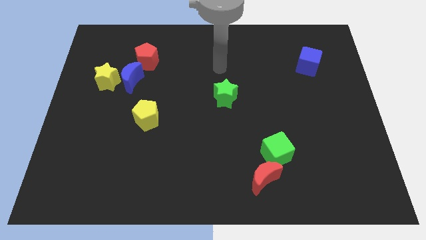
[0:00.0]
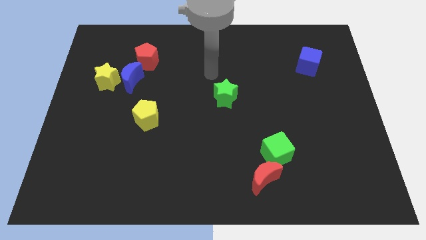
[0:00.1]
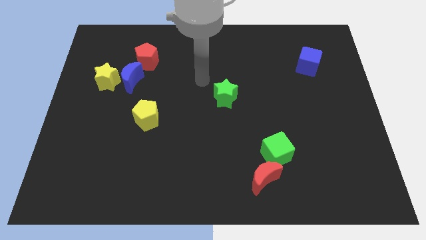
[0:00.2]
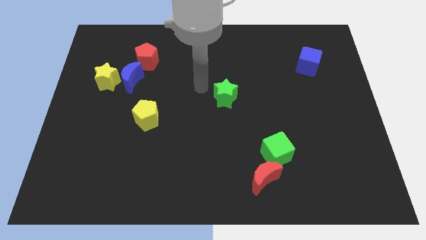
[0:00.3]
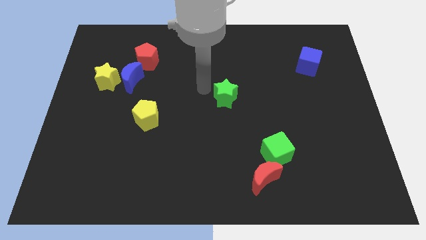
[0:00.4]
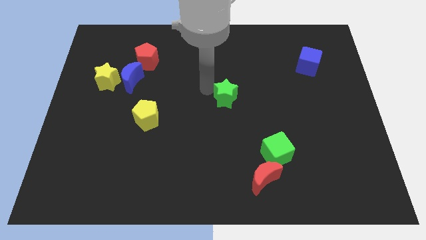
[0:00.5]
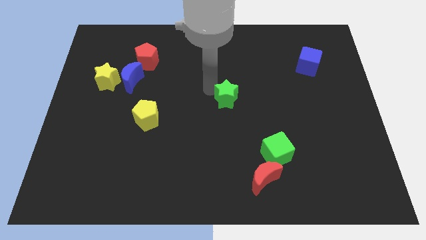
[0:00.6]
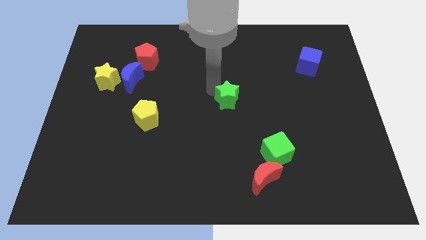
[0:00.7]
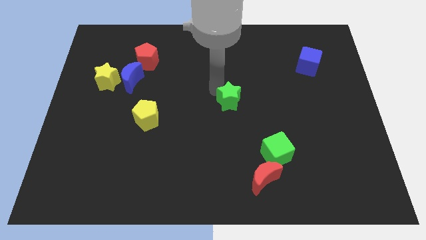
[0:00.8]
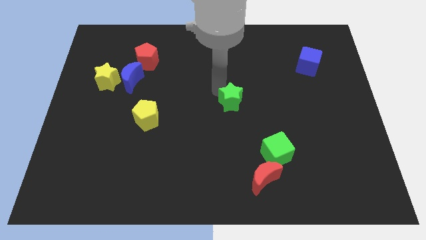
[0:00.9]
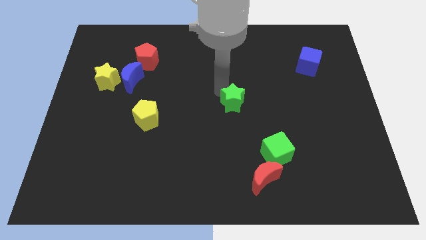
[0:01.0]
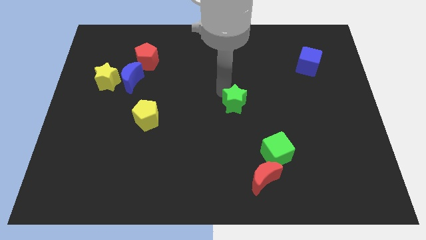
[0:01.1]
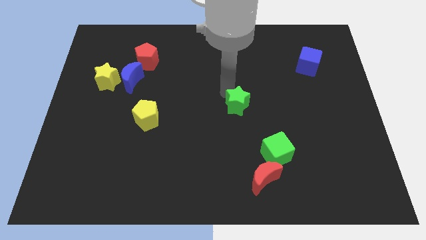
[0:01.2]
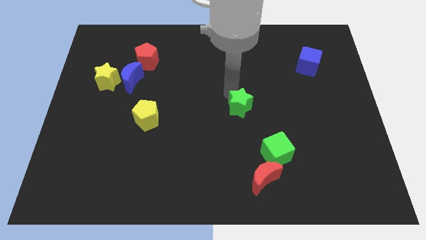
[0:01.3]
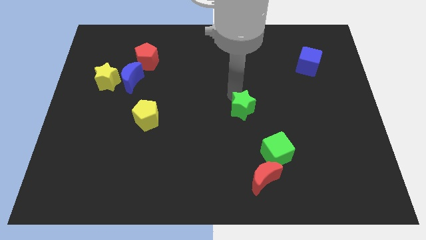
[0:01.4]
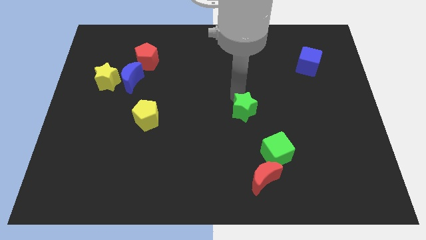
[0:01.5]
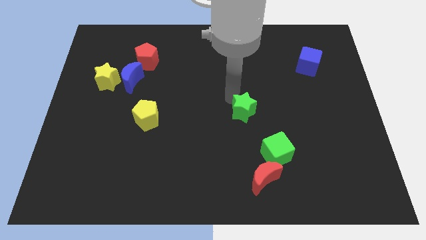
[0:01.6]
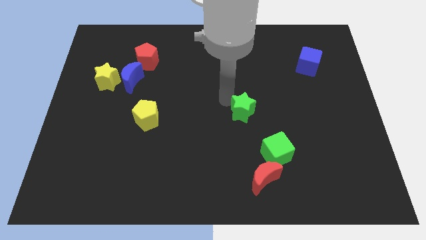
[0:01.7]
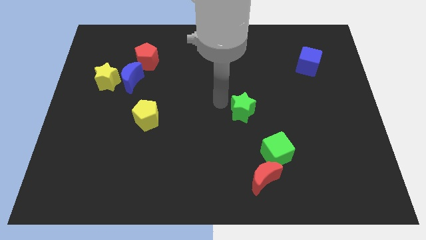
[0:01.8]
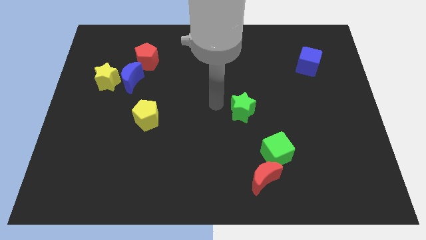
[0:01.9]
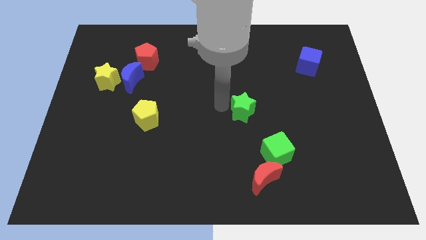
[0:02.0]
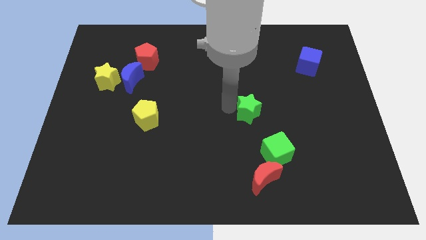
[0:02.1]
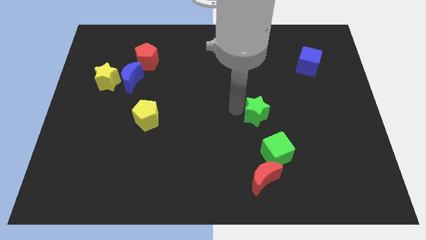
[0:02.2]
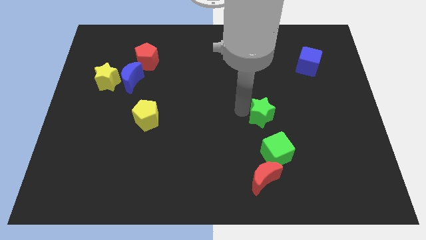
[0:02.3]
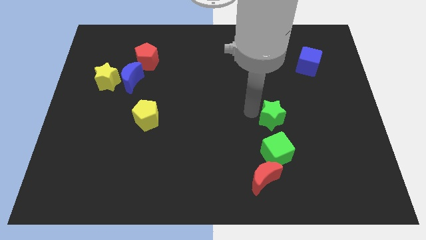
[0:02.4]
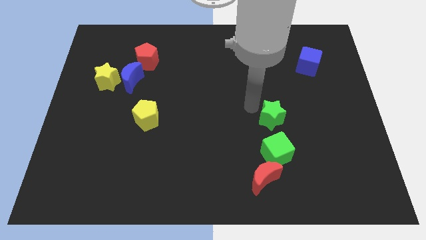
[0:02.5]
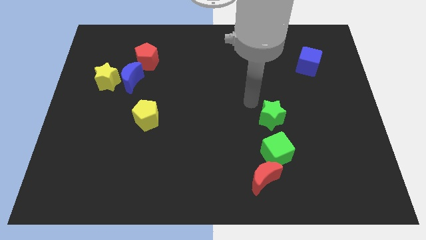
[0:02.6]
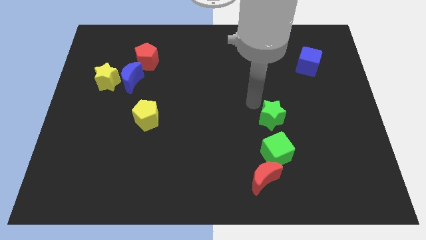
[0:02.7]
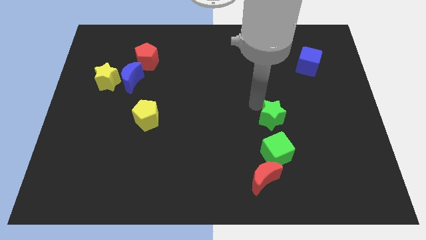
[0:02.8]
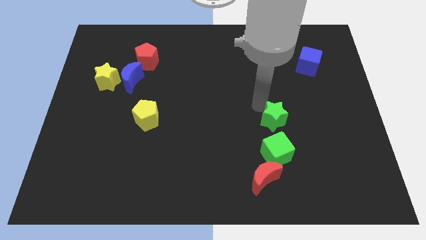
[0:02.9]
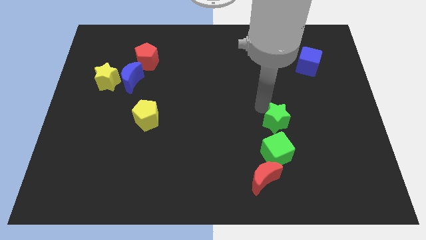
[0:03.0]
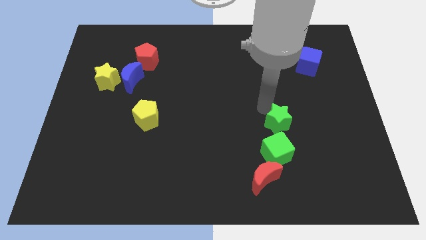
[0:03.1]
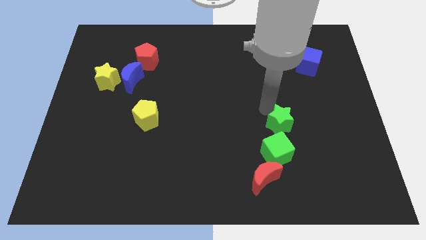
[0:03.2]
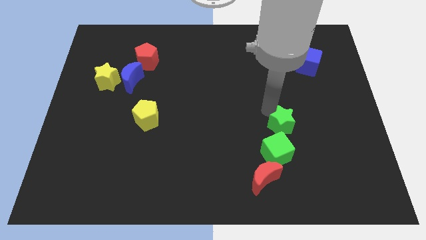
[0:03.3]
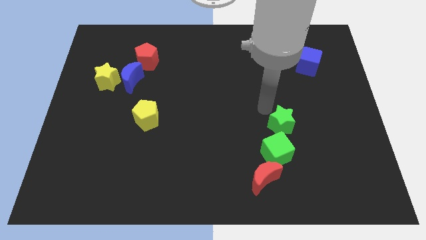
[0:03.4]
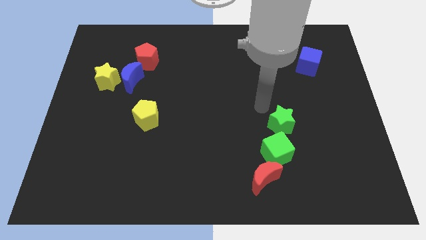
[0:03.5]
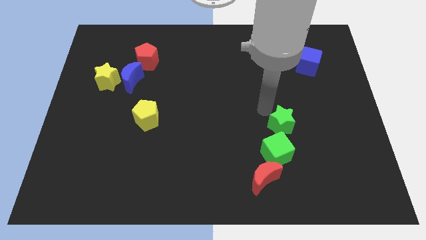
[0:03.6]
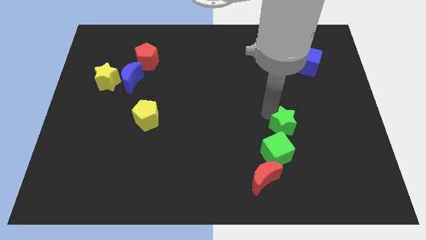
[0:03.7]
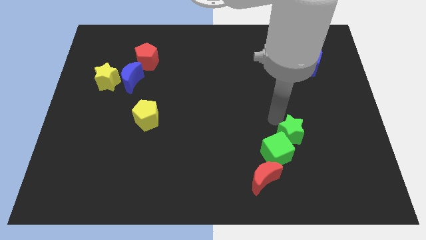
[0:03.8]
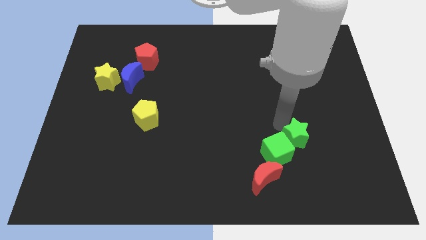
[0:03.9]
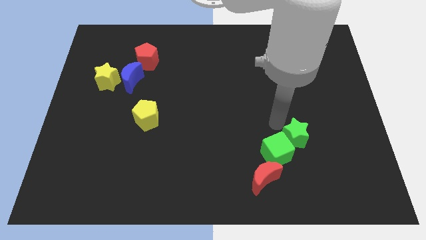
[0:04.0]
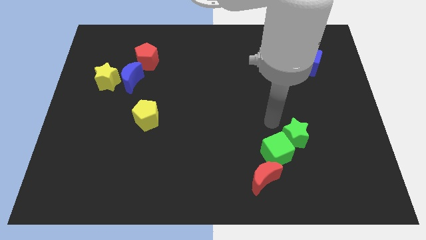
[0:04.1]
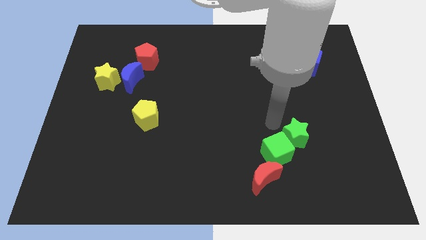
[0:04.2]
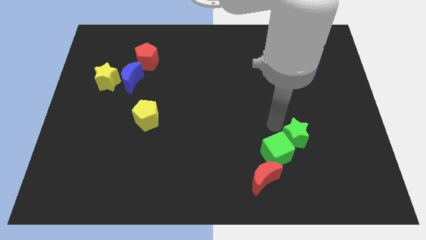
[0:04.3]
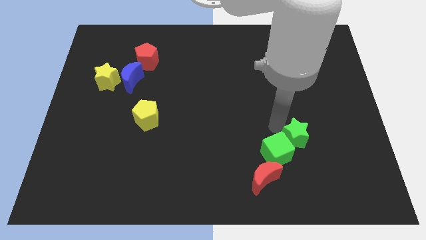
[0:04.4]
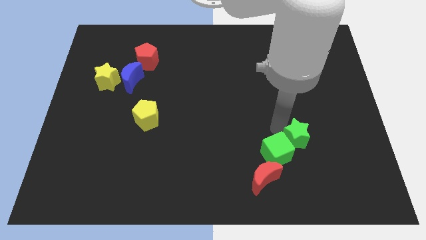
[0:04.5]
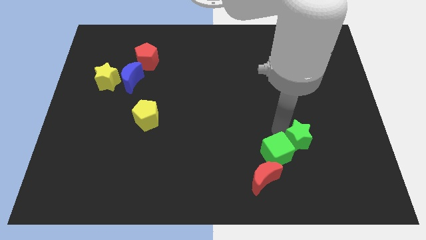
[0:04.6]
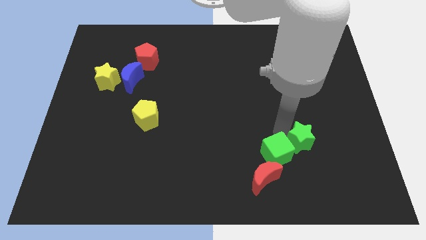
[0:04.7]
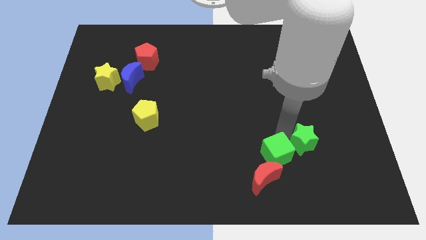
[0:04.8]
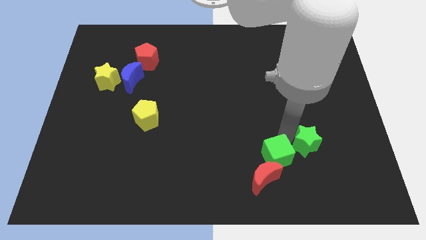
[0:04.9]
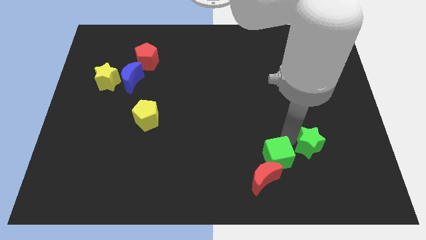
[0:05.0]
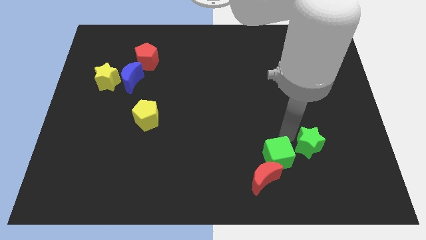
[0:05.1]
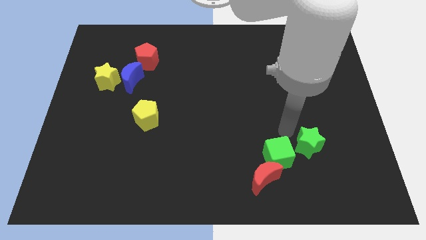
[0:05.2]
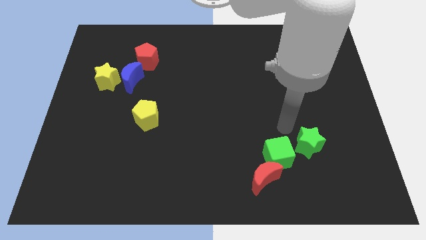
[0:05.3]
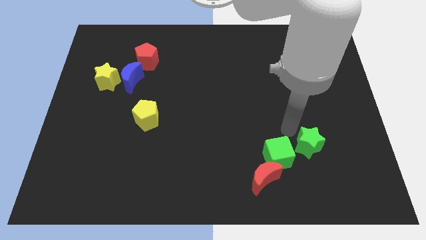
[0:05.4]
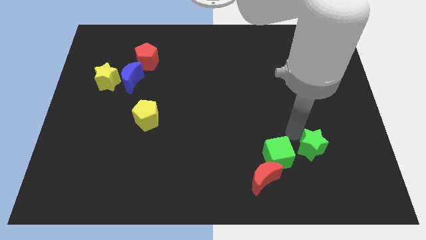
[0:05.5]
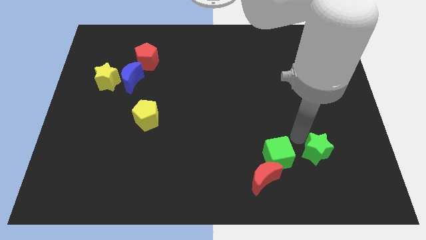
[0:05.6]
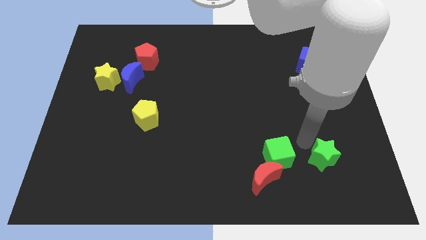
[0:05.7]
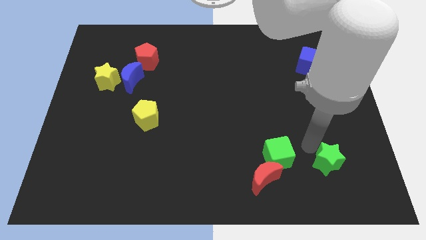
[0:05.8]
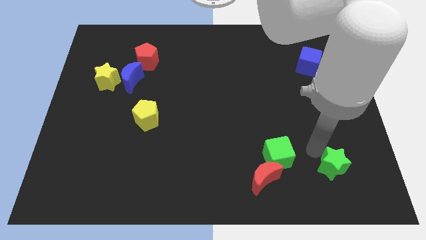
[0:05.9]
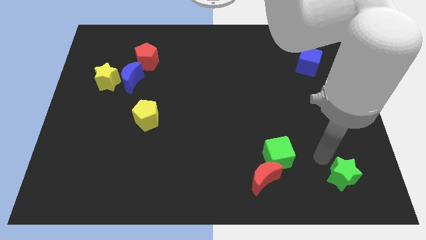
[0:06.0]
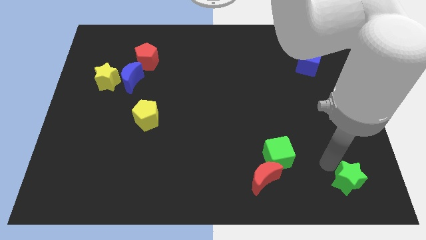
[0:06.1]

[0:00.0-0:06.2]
put the green star to the bottom right
